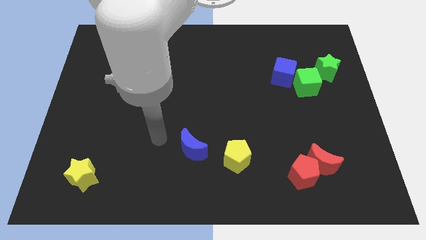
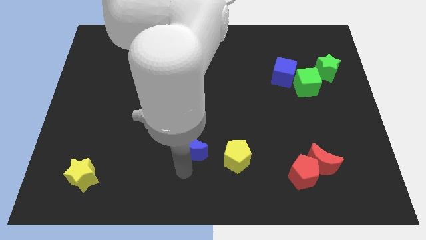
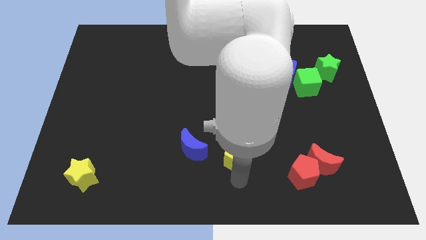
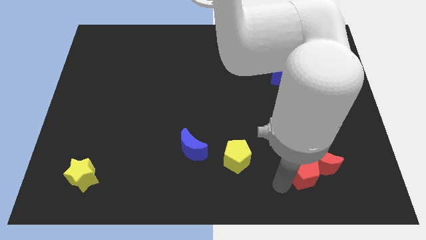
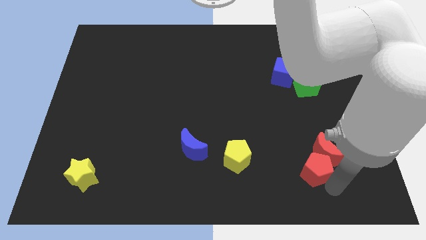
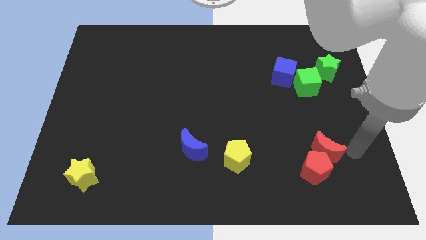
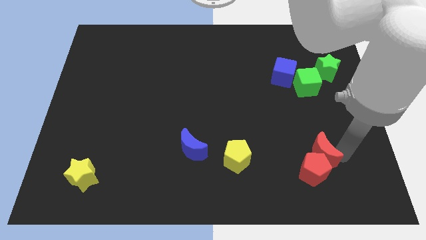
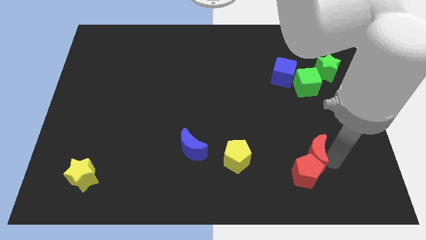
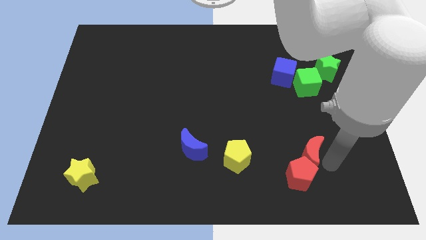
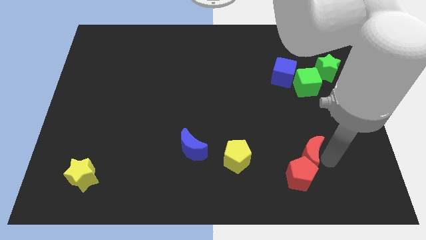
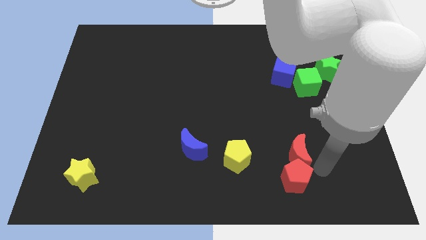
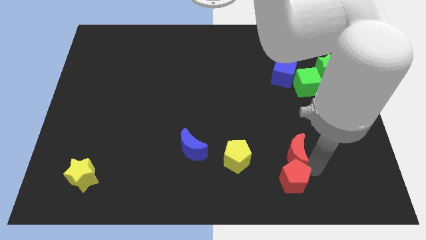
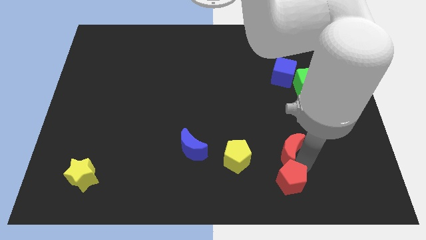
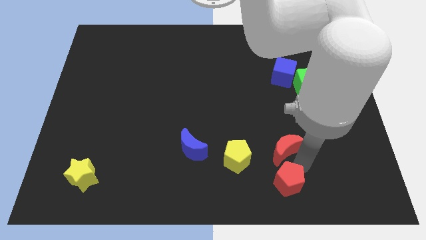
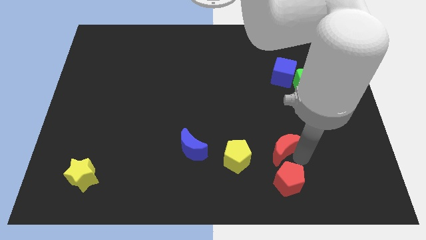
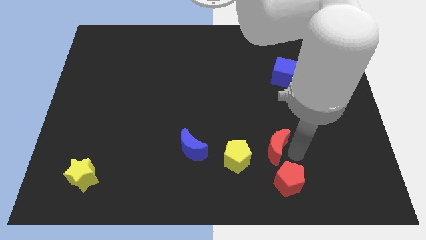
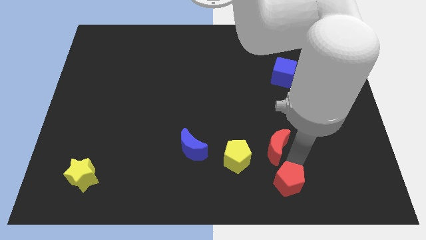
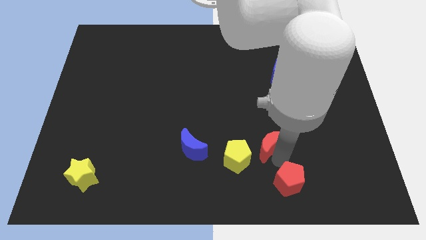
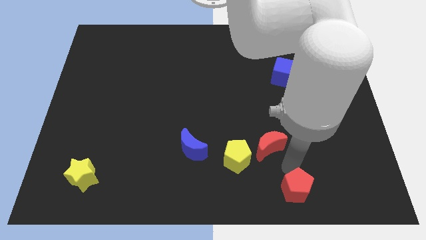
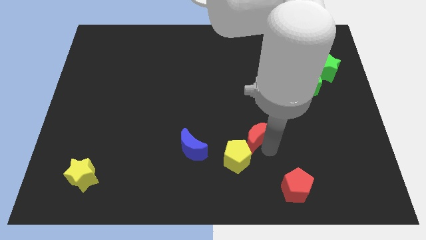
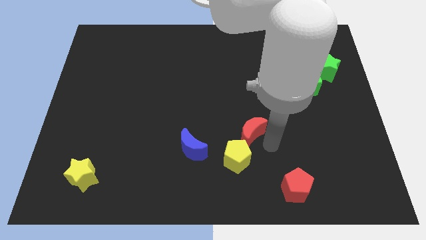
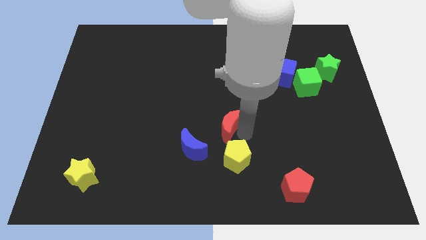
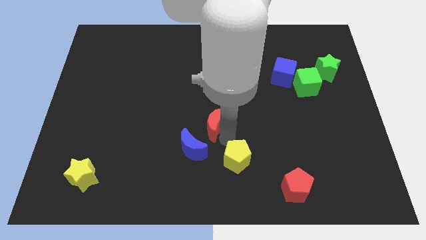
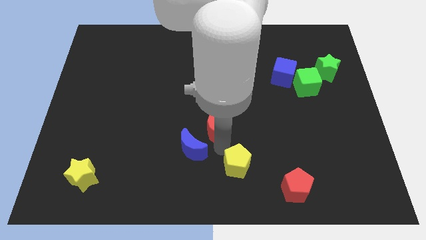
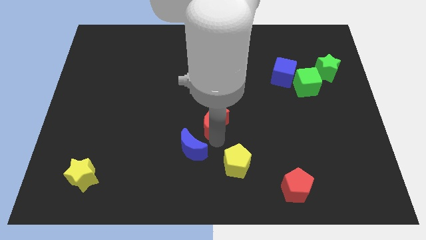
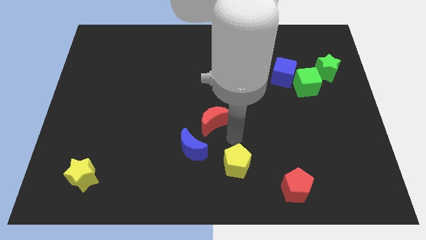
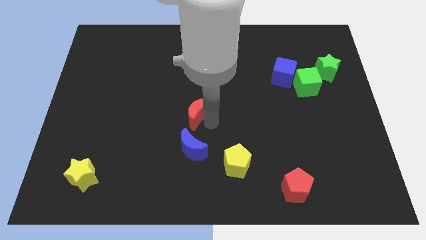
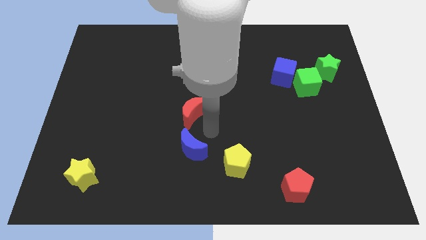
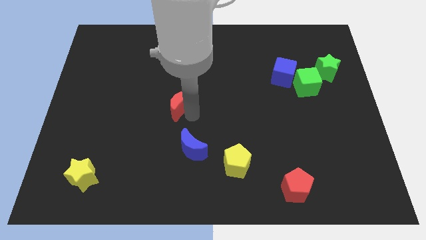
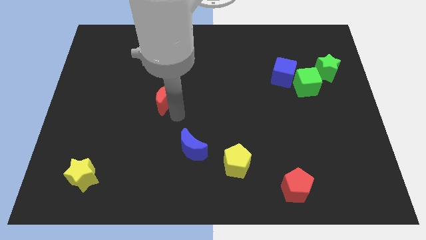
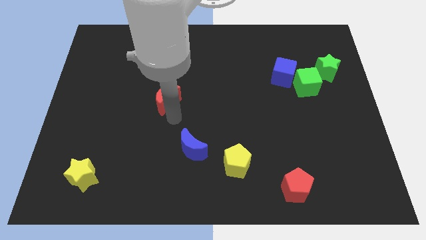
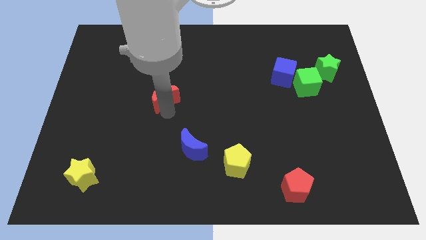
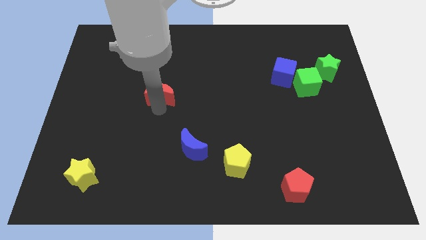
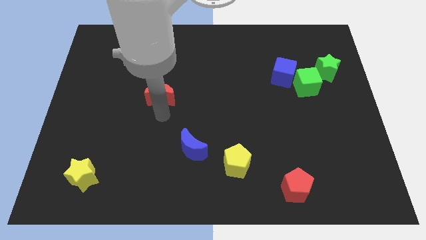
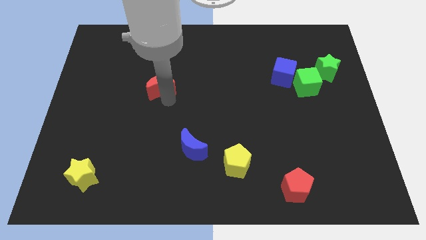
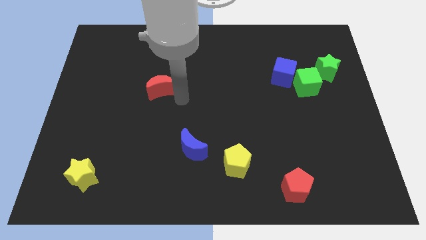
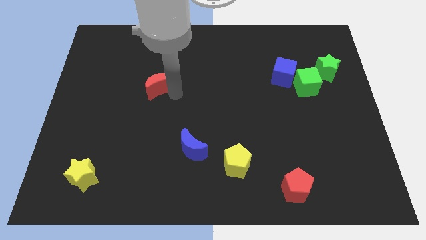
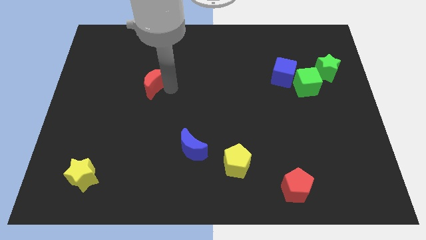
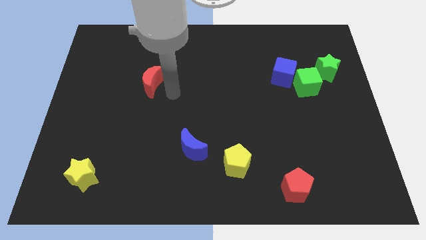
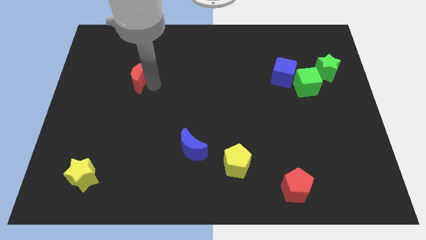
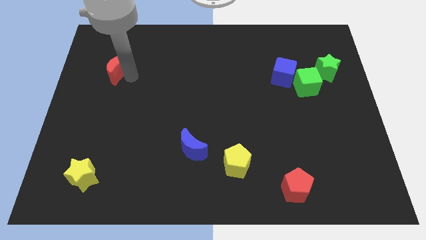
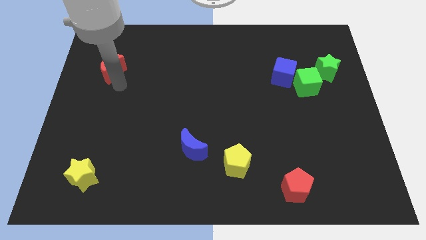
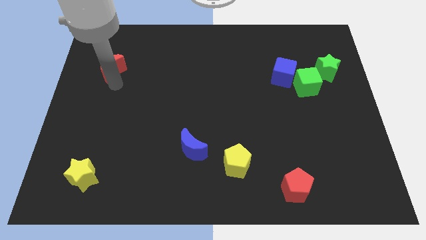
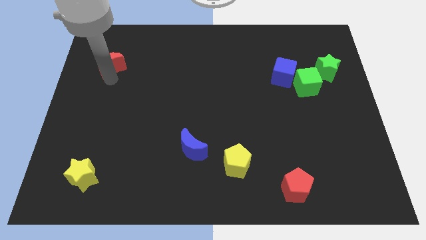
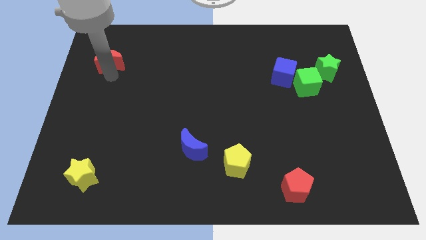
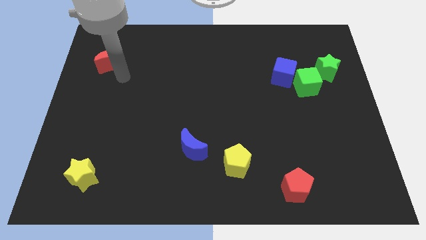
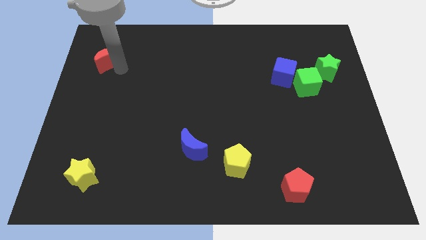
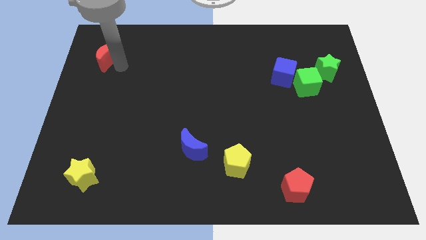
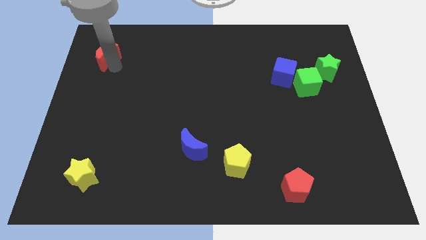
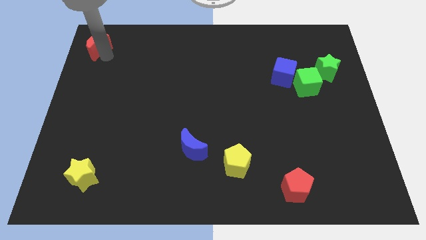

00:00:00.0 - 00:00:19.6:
push the red moon to the upper left corner

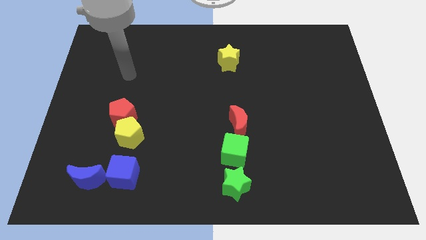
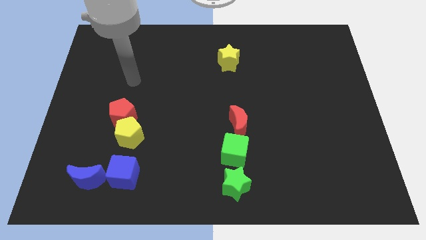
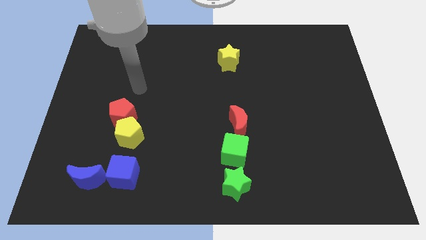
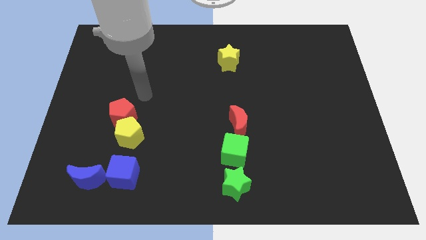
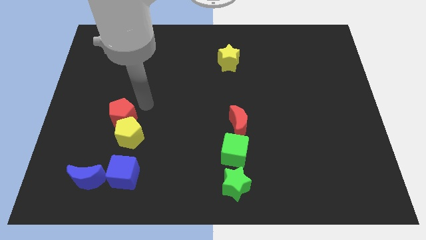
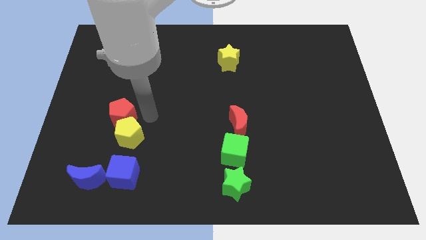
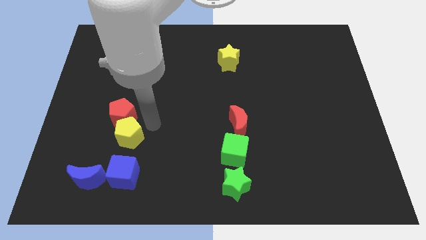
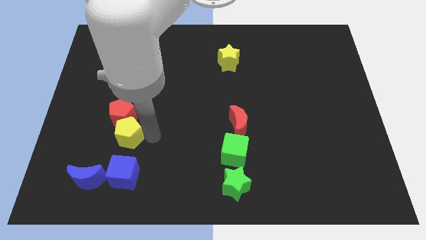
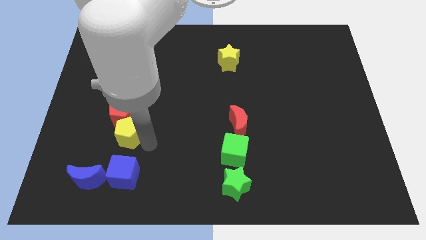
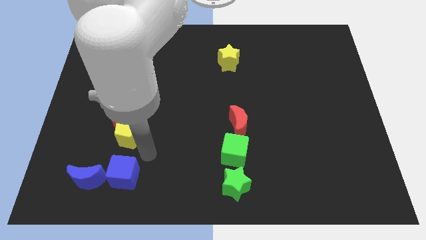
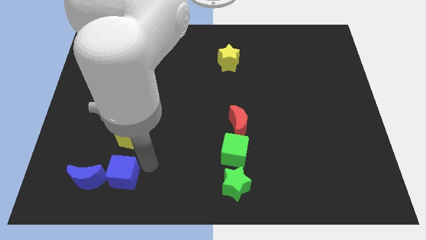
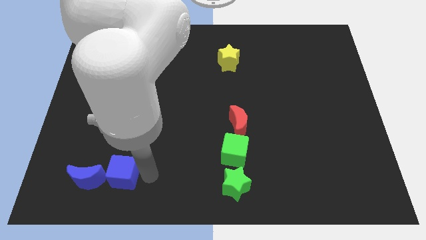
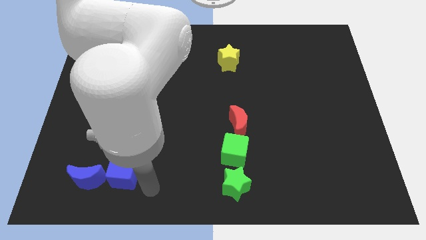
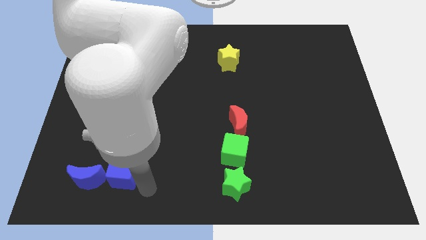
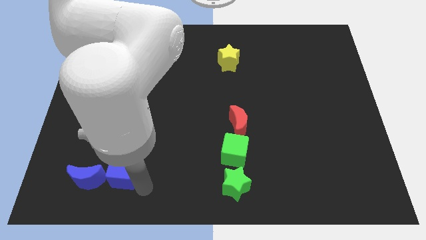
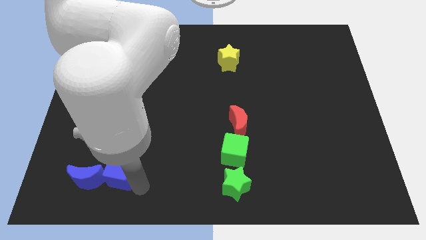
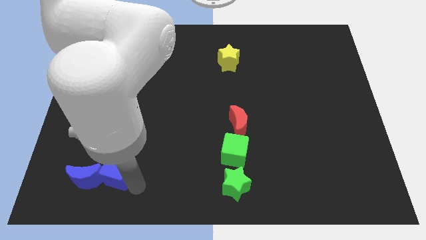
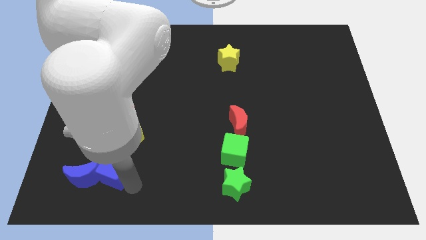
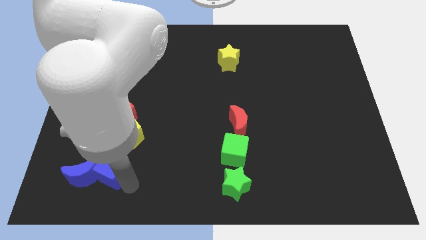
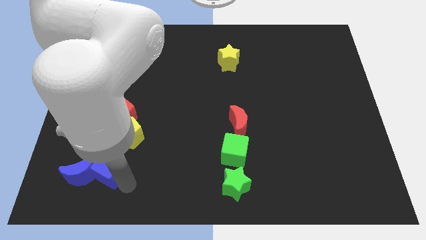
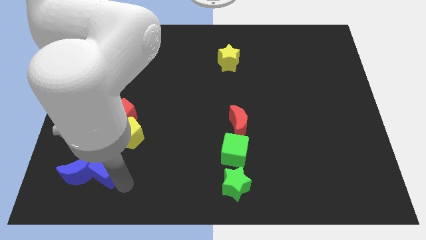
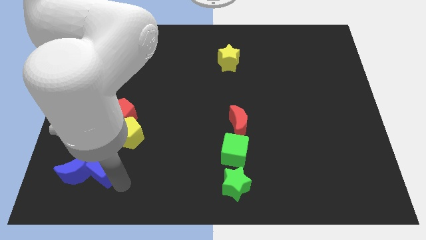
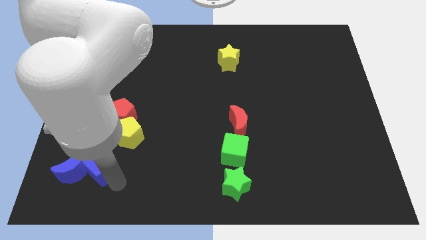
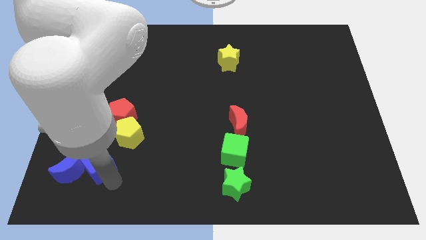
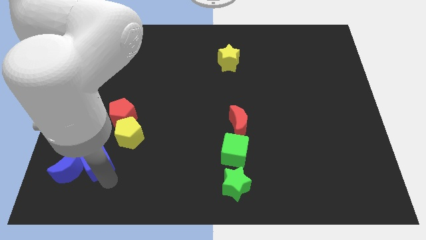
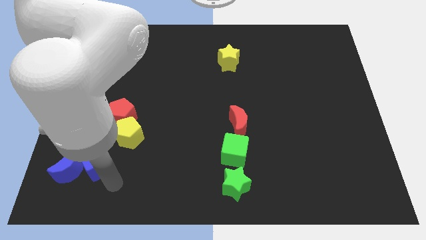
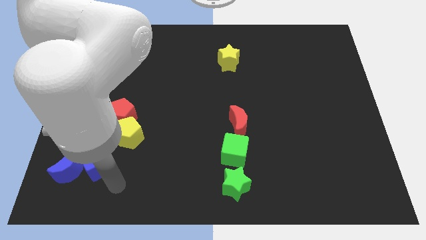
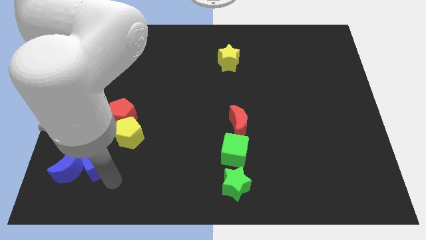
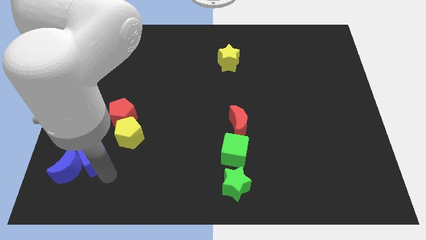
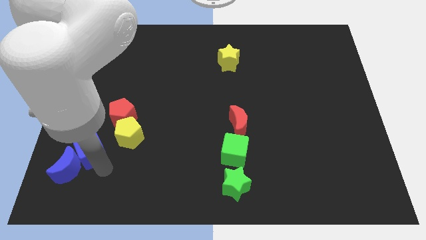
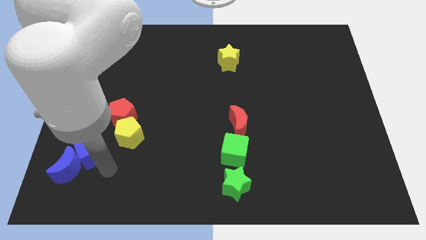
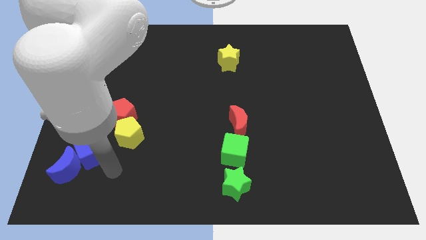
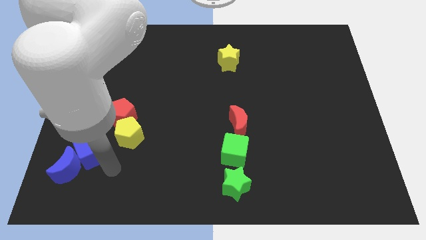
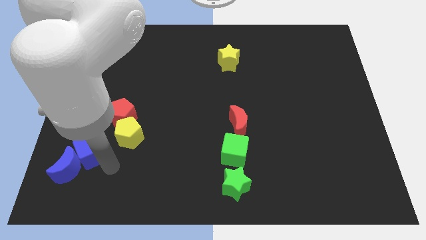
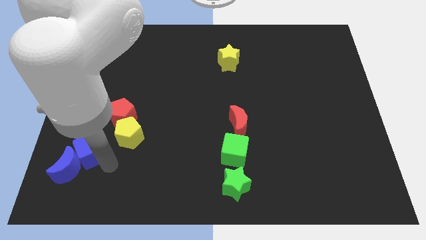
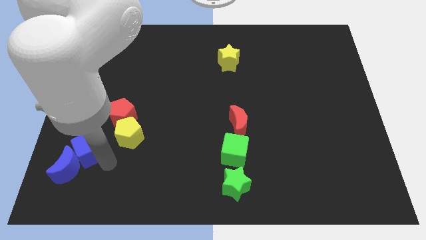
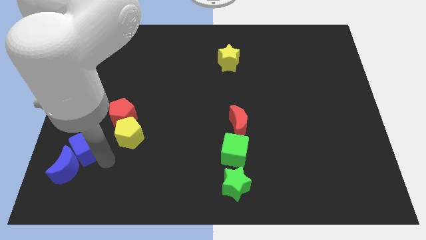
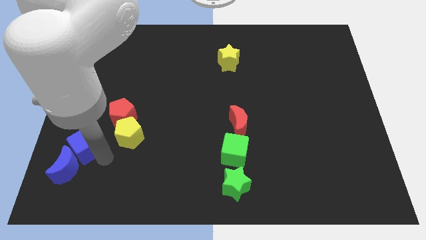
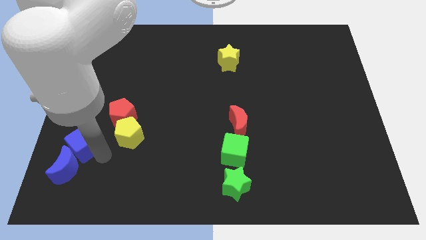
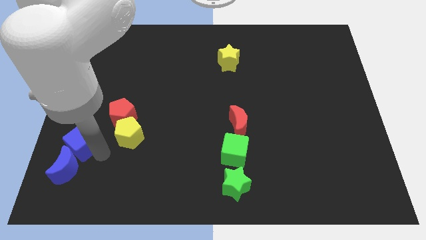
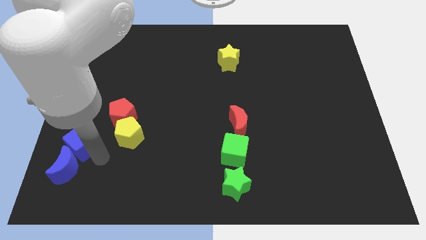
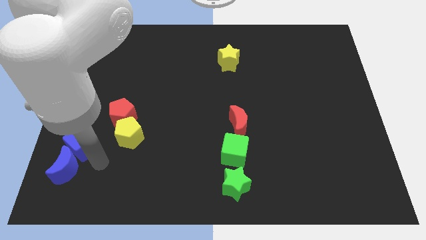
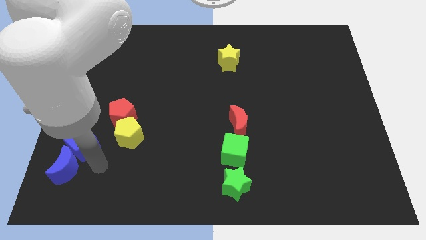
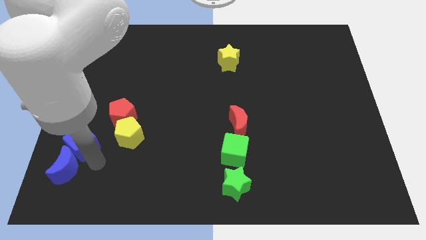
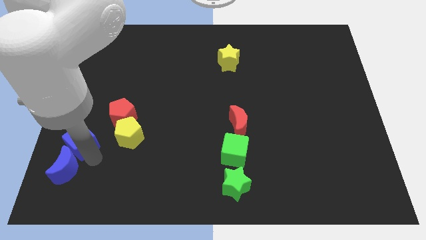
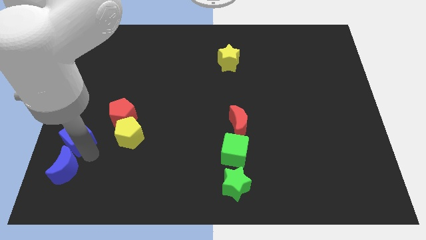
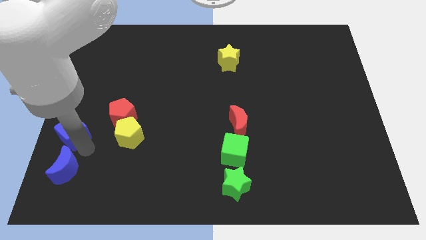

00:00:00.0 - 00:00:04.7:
push the blue cube to the left side
